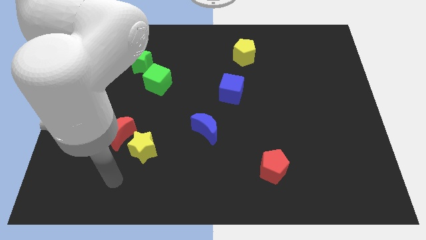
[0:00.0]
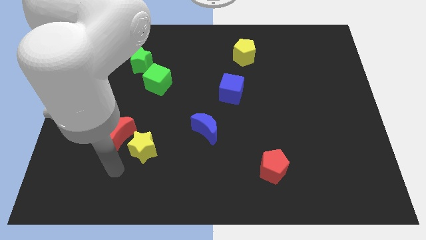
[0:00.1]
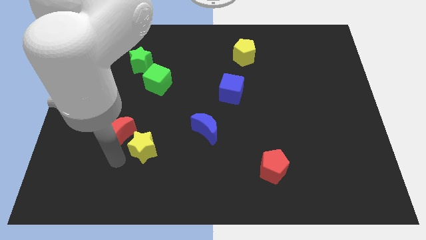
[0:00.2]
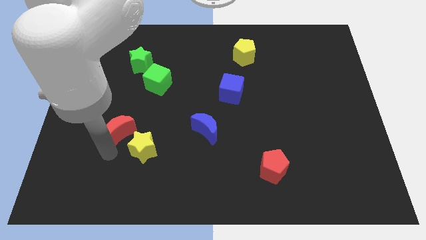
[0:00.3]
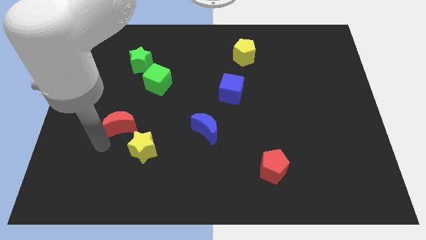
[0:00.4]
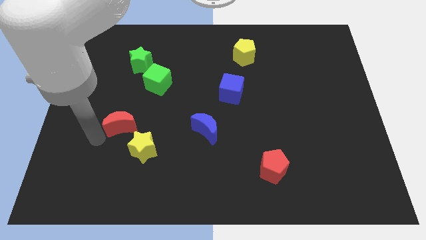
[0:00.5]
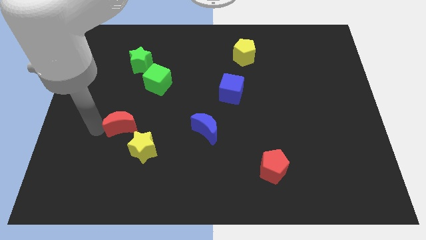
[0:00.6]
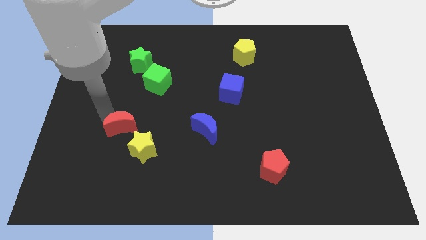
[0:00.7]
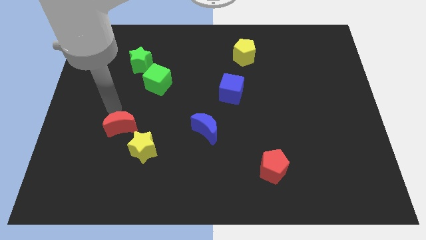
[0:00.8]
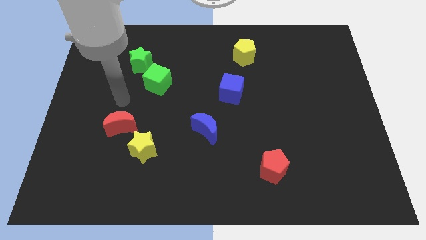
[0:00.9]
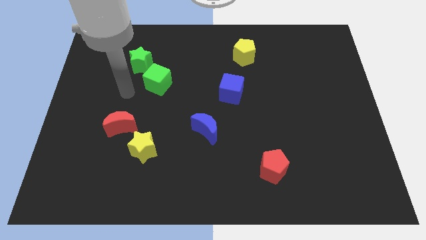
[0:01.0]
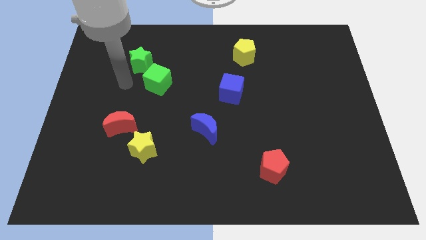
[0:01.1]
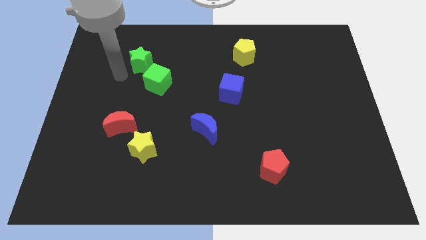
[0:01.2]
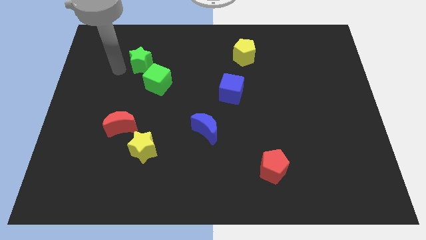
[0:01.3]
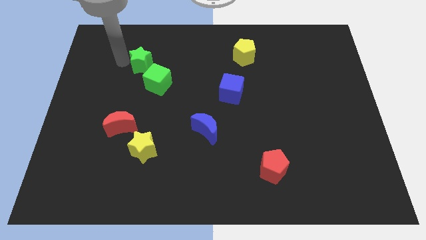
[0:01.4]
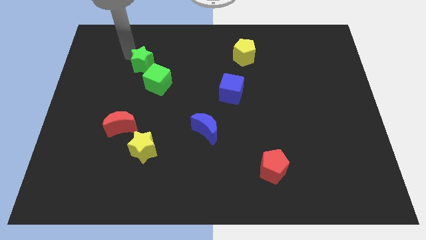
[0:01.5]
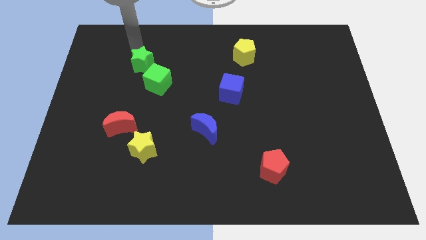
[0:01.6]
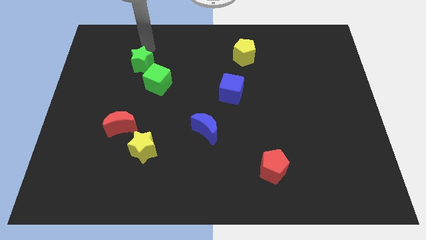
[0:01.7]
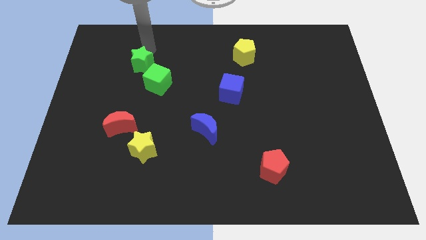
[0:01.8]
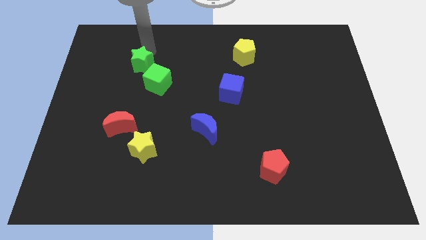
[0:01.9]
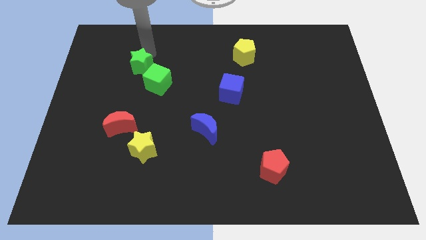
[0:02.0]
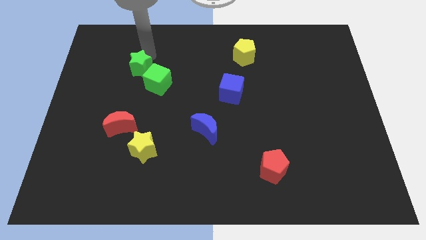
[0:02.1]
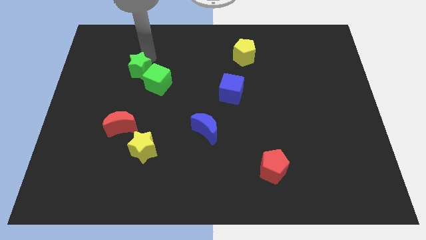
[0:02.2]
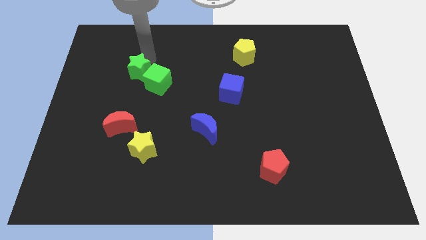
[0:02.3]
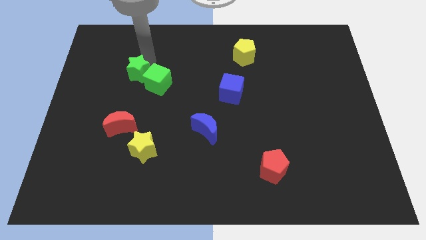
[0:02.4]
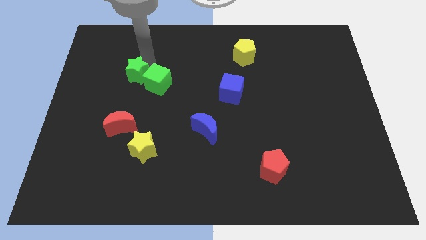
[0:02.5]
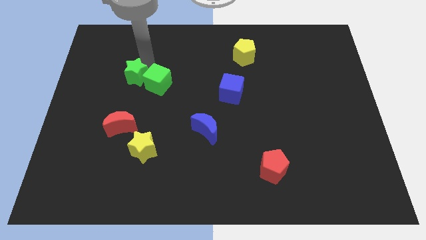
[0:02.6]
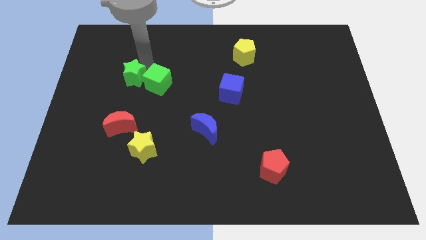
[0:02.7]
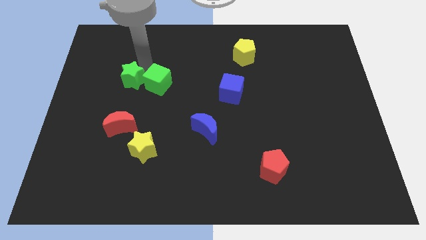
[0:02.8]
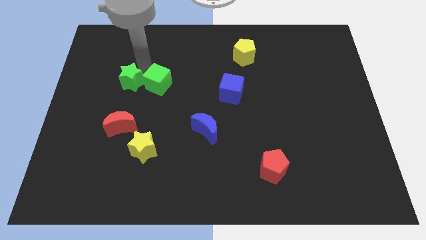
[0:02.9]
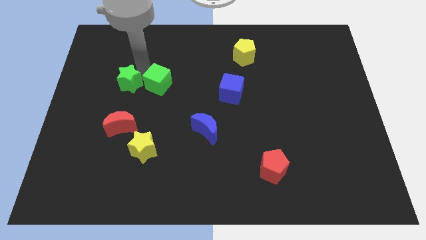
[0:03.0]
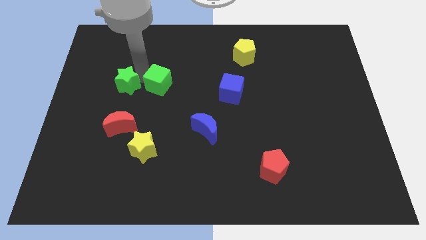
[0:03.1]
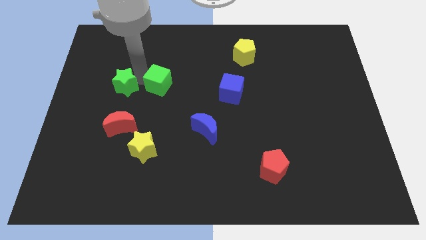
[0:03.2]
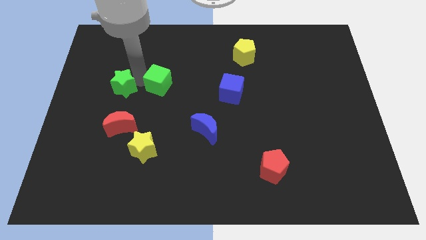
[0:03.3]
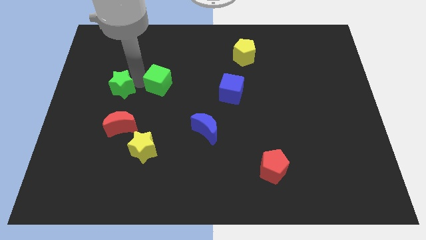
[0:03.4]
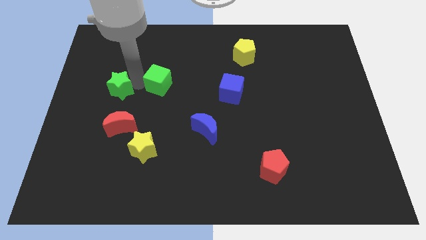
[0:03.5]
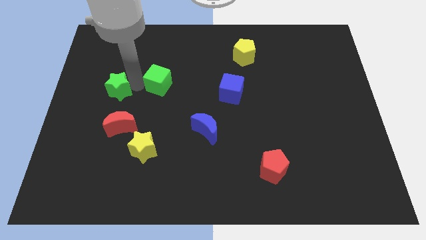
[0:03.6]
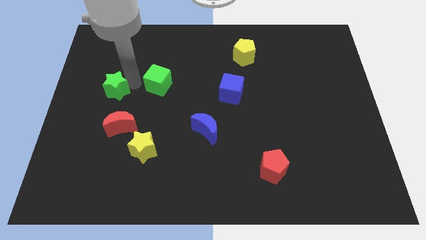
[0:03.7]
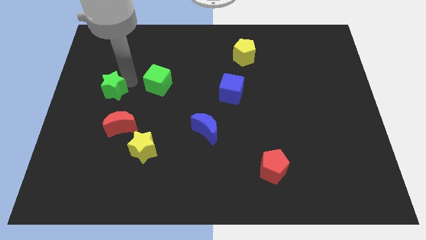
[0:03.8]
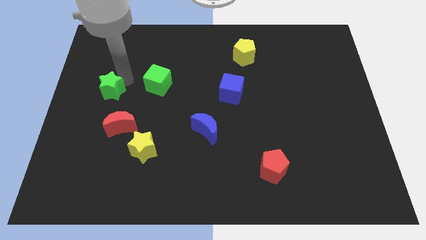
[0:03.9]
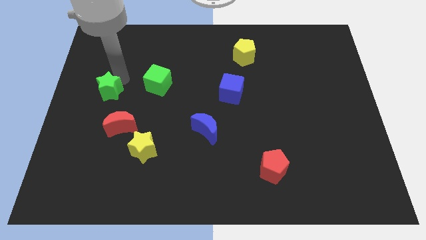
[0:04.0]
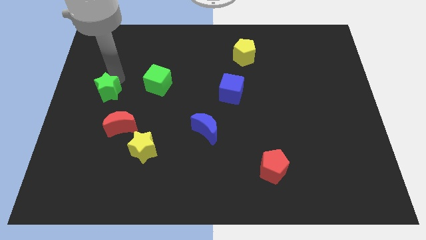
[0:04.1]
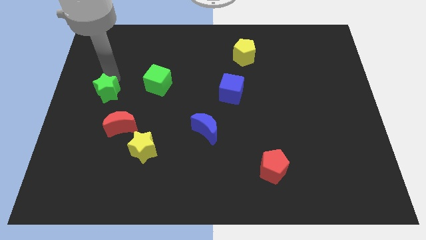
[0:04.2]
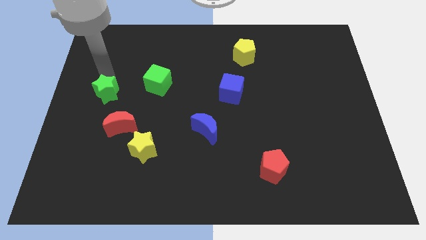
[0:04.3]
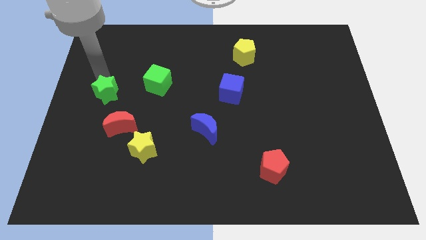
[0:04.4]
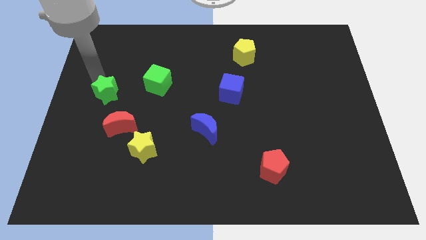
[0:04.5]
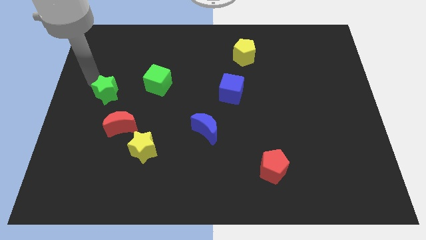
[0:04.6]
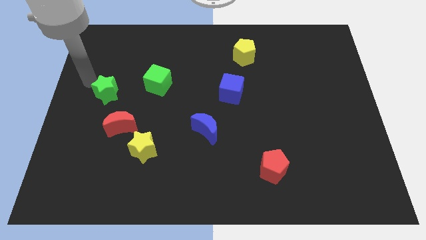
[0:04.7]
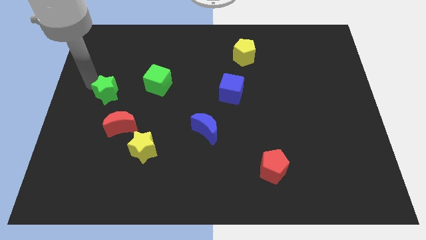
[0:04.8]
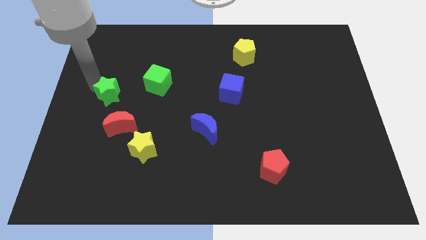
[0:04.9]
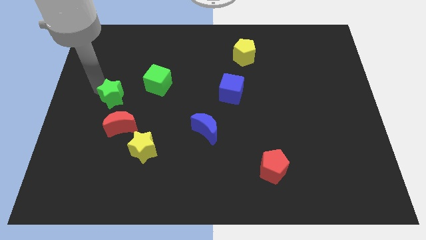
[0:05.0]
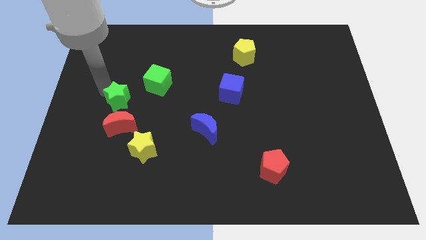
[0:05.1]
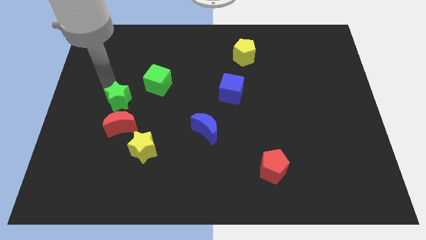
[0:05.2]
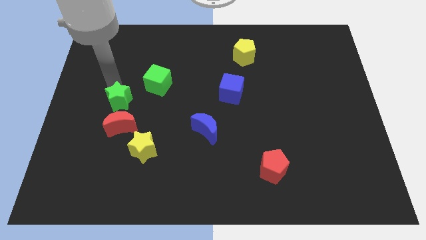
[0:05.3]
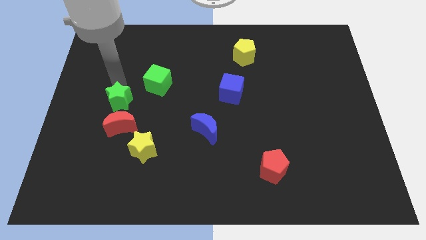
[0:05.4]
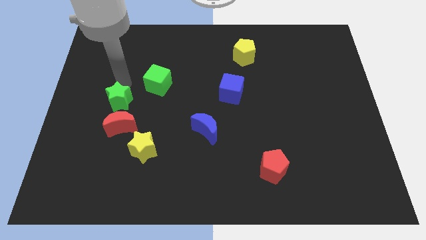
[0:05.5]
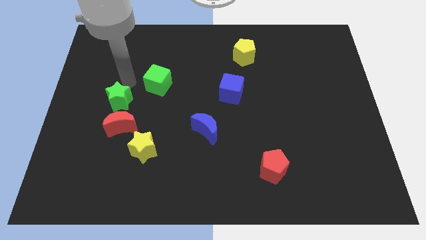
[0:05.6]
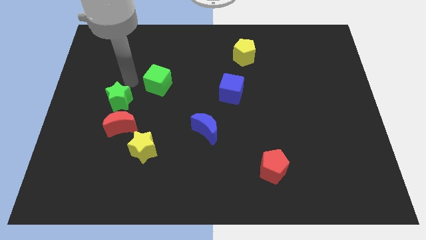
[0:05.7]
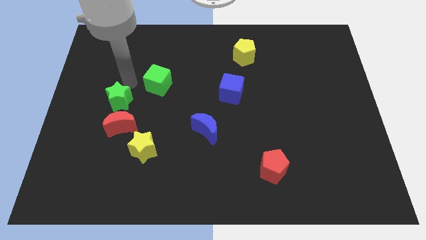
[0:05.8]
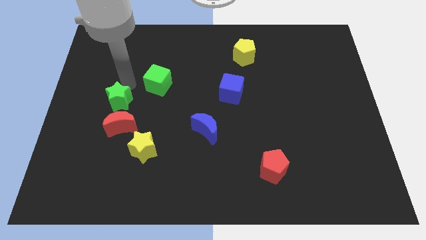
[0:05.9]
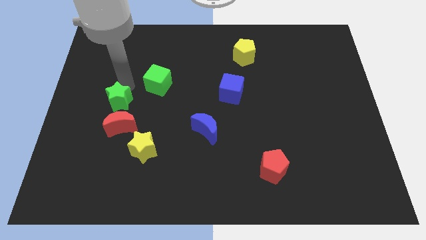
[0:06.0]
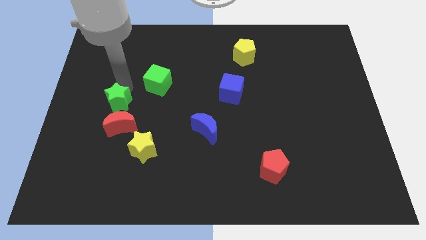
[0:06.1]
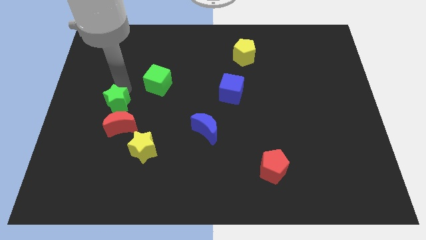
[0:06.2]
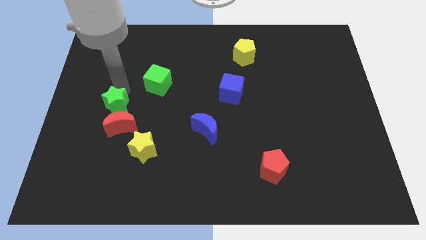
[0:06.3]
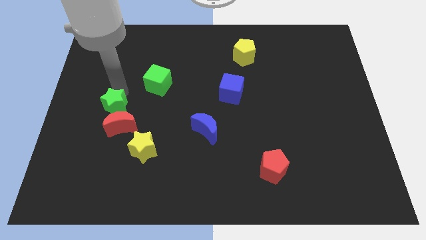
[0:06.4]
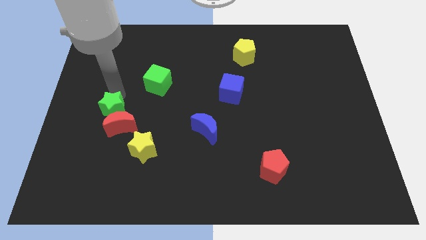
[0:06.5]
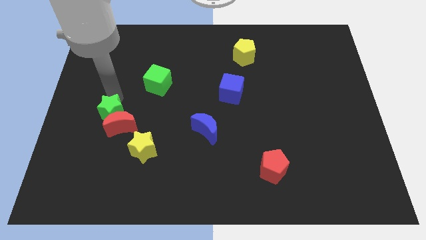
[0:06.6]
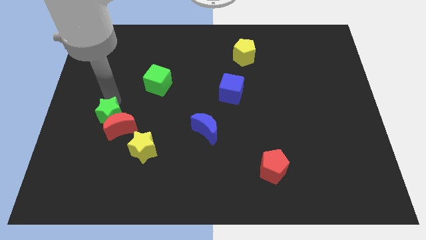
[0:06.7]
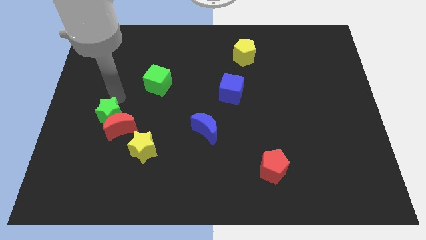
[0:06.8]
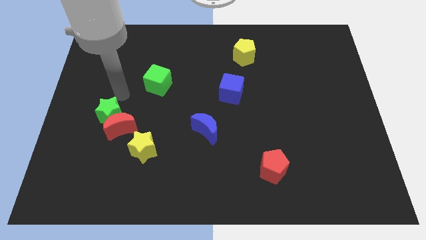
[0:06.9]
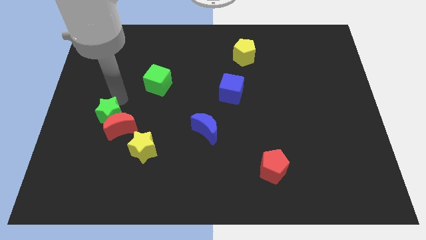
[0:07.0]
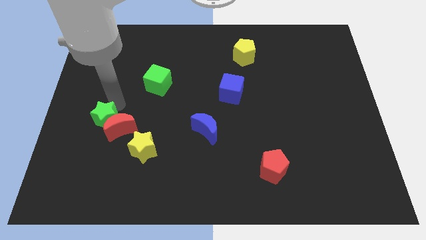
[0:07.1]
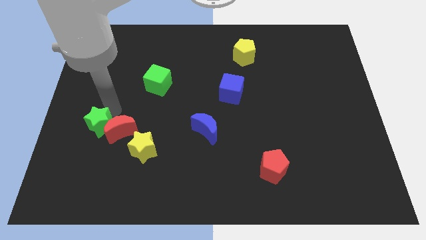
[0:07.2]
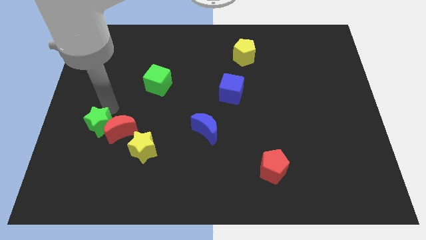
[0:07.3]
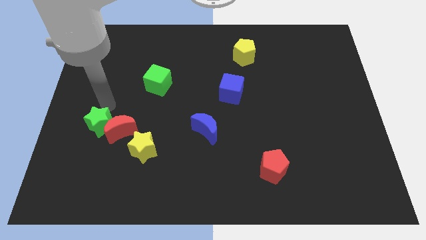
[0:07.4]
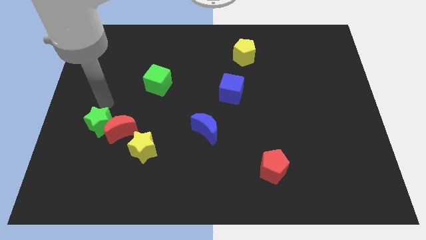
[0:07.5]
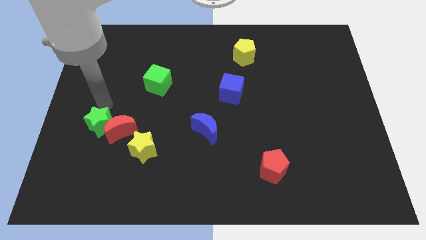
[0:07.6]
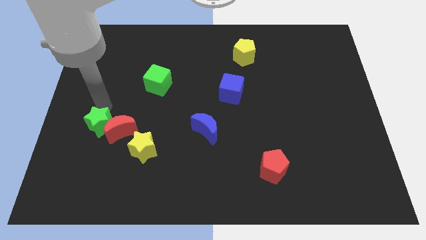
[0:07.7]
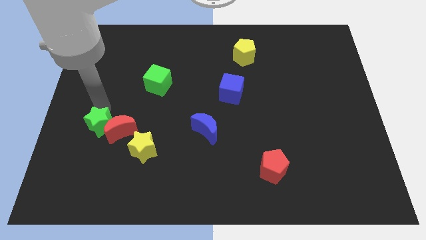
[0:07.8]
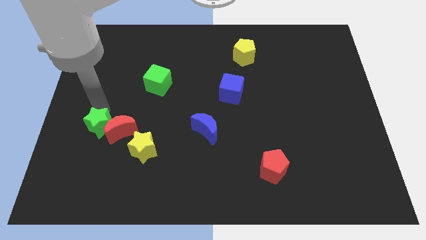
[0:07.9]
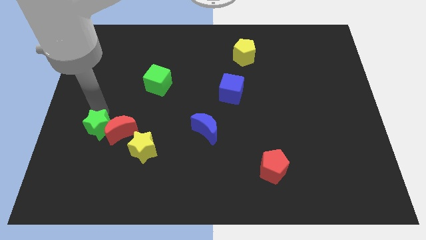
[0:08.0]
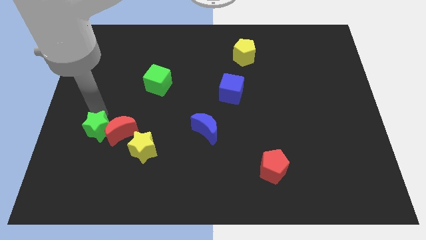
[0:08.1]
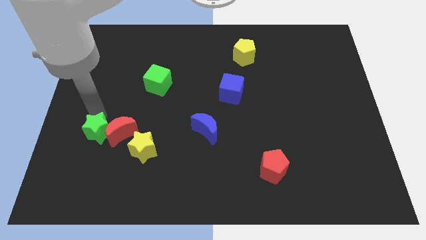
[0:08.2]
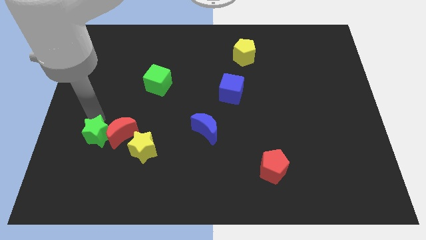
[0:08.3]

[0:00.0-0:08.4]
slide the green star down

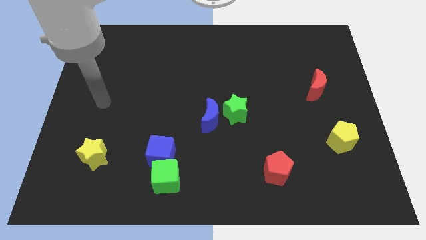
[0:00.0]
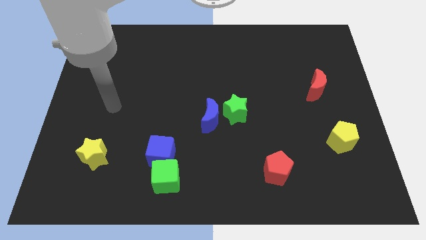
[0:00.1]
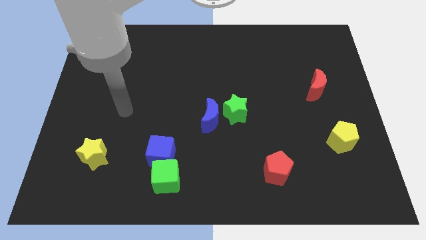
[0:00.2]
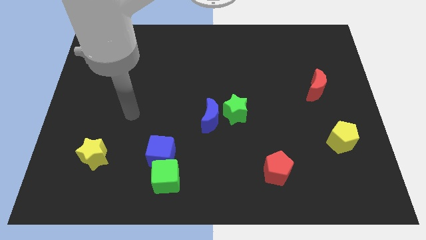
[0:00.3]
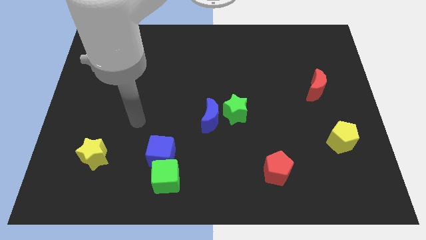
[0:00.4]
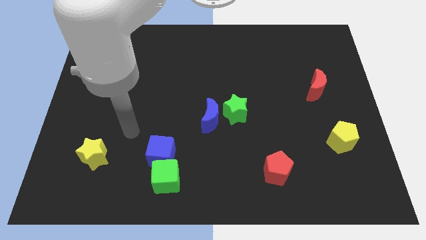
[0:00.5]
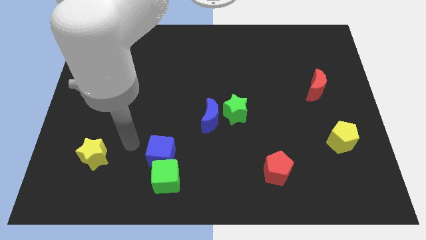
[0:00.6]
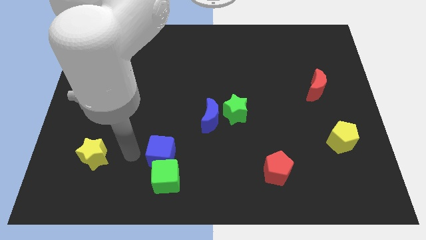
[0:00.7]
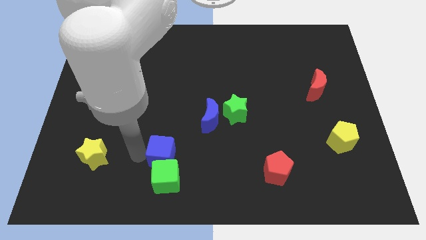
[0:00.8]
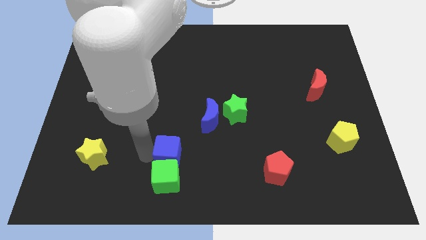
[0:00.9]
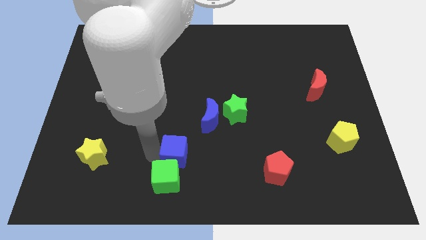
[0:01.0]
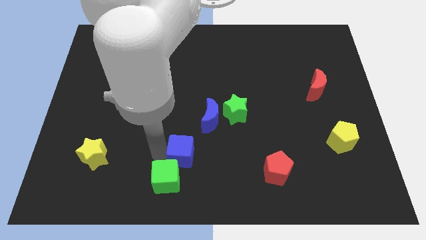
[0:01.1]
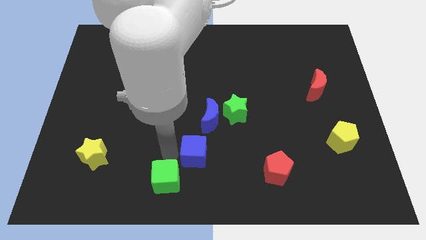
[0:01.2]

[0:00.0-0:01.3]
push the blue cube slightly right
